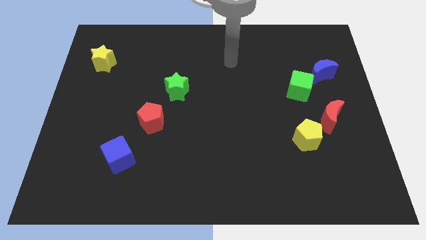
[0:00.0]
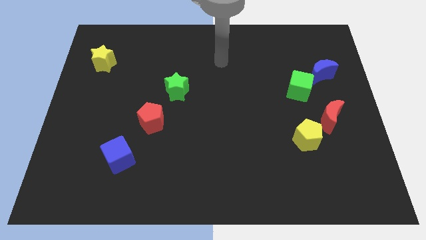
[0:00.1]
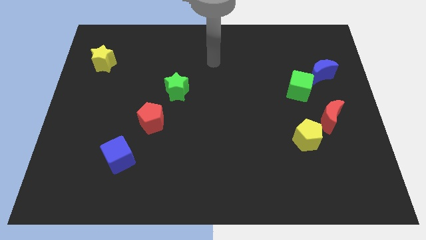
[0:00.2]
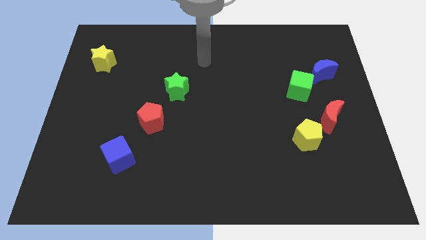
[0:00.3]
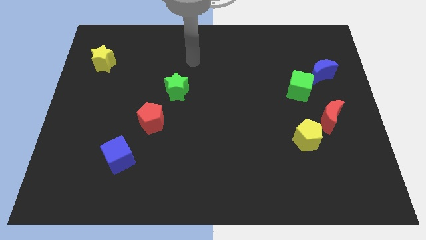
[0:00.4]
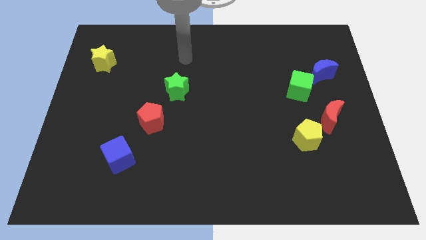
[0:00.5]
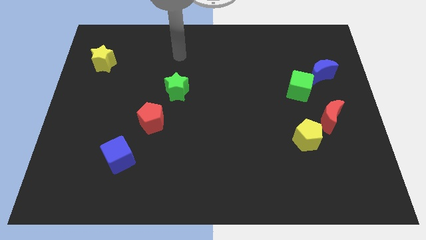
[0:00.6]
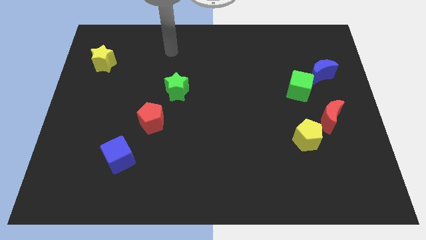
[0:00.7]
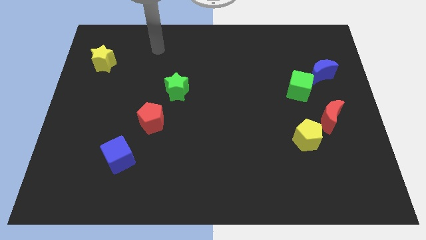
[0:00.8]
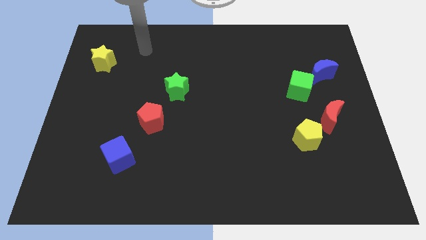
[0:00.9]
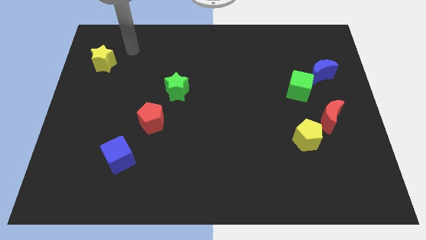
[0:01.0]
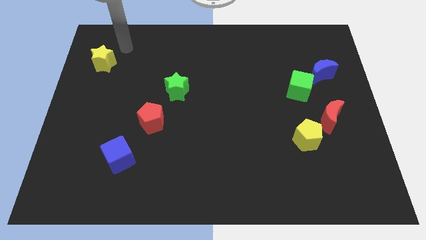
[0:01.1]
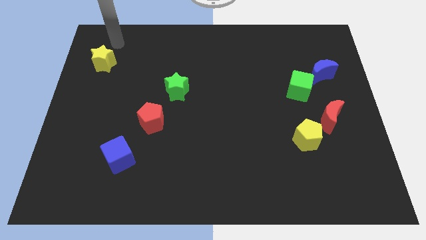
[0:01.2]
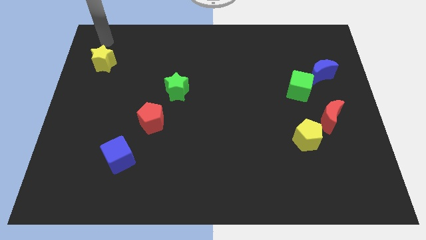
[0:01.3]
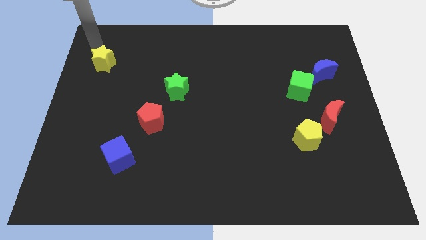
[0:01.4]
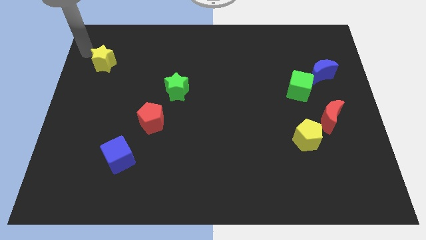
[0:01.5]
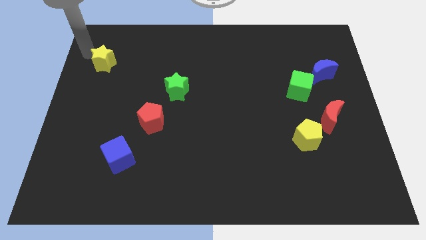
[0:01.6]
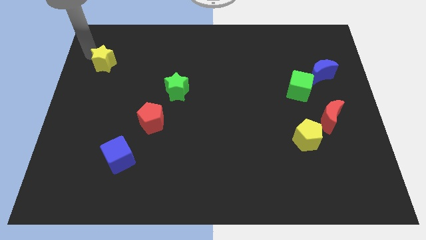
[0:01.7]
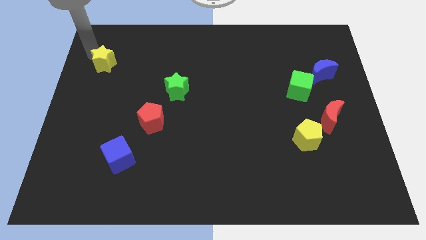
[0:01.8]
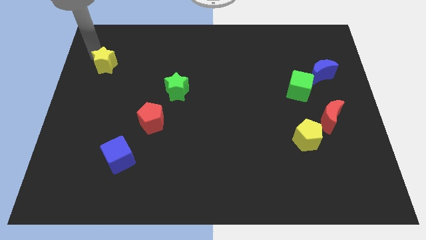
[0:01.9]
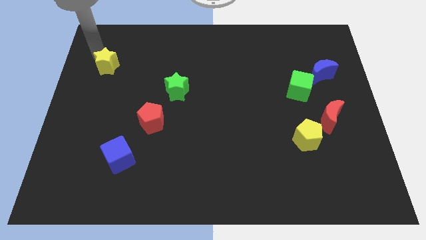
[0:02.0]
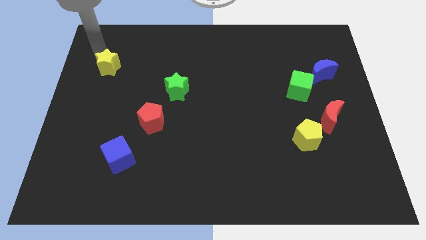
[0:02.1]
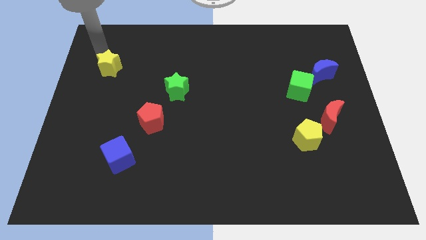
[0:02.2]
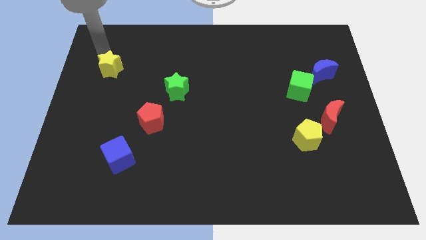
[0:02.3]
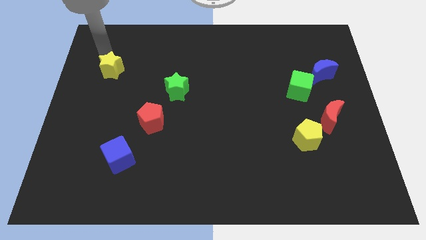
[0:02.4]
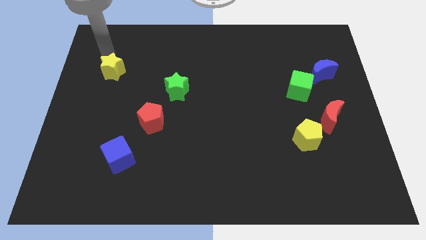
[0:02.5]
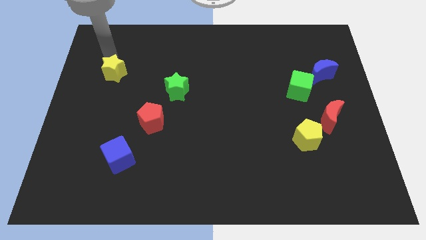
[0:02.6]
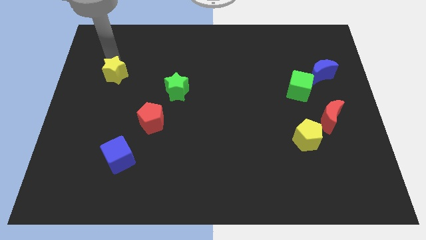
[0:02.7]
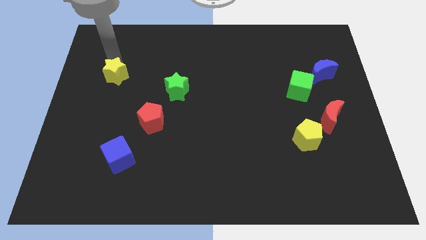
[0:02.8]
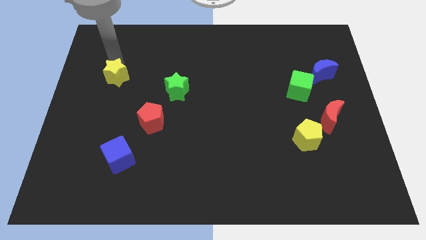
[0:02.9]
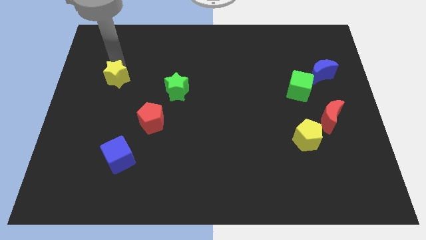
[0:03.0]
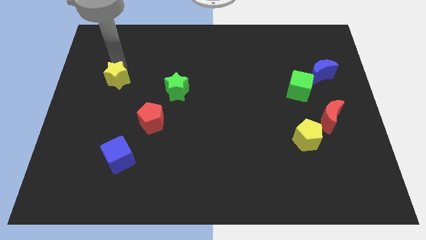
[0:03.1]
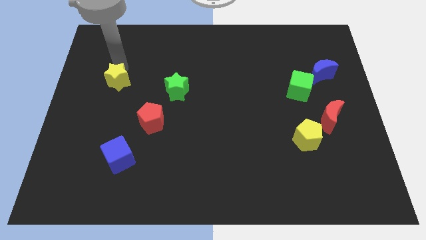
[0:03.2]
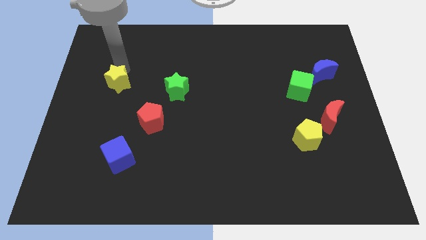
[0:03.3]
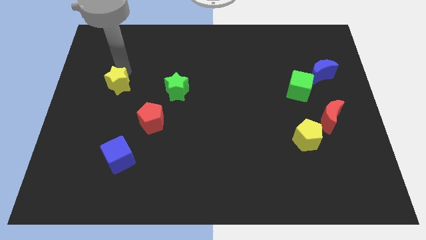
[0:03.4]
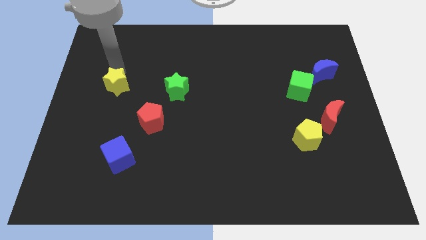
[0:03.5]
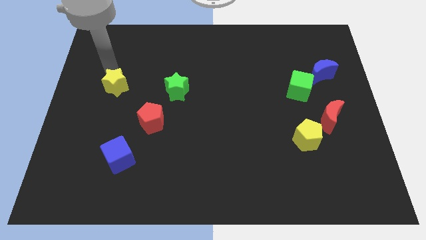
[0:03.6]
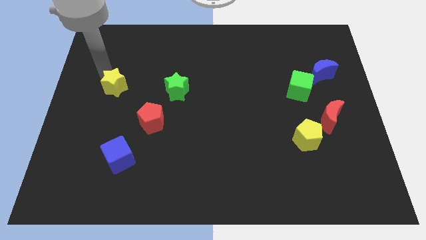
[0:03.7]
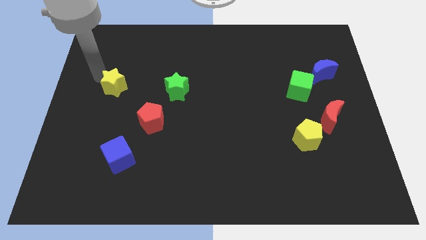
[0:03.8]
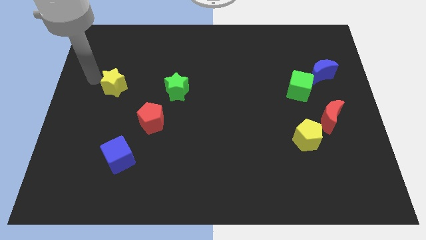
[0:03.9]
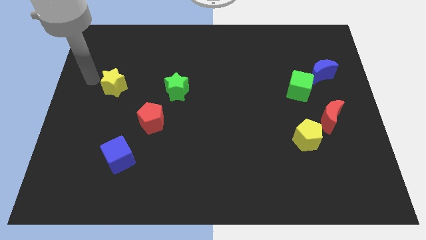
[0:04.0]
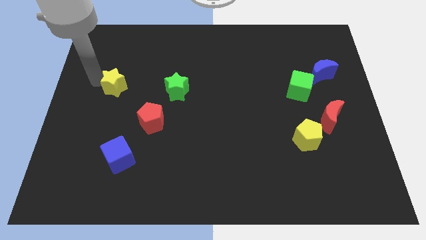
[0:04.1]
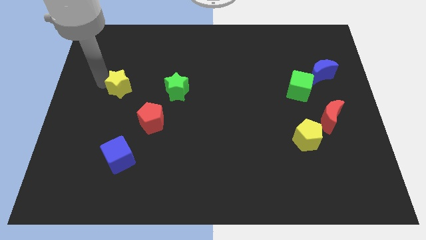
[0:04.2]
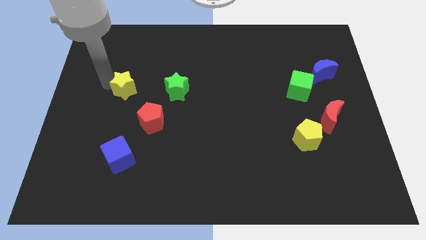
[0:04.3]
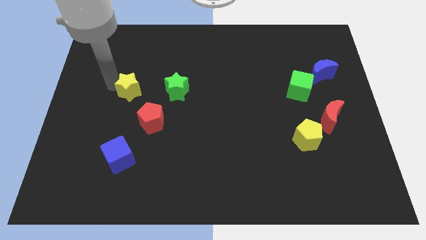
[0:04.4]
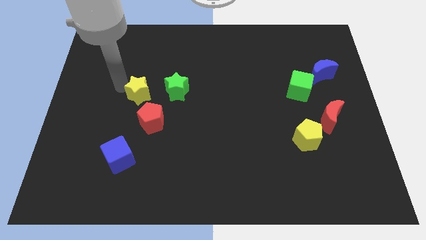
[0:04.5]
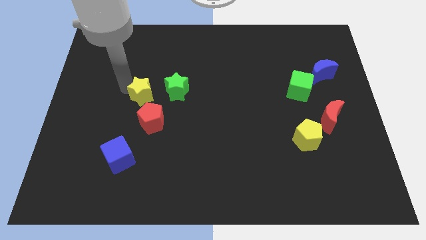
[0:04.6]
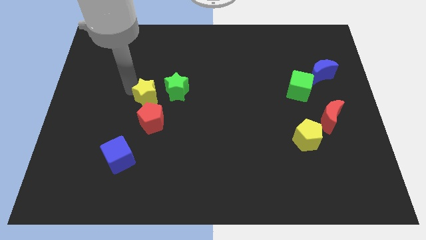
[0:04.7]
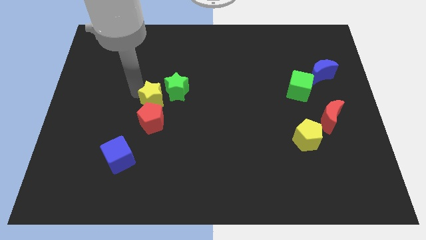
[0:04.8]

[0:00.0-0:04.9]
push the yellow star diagonally up and to the right of the red pentagon

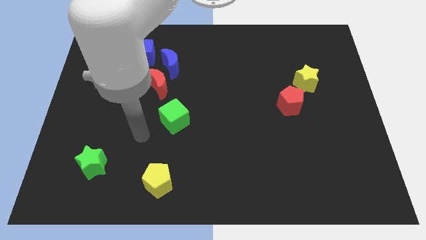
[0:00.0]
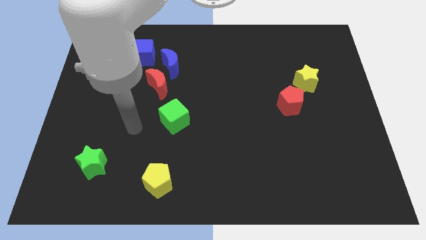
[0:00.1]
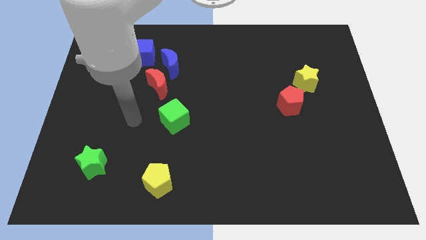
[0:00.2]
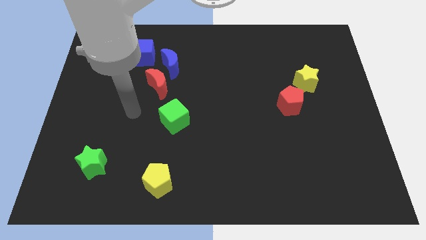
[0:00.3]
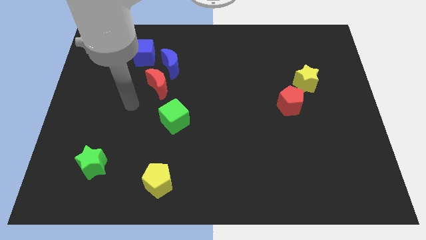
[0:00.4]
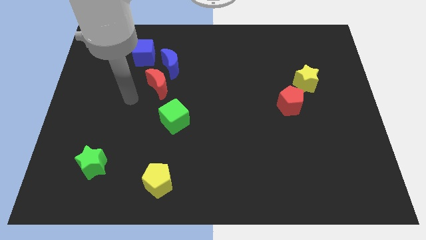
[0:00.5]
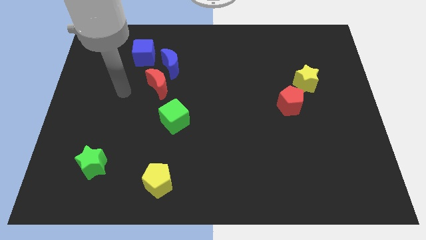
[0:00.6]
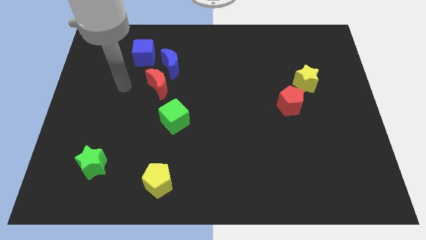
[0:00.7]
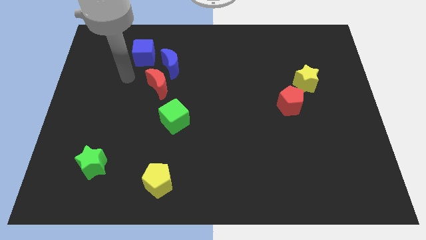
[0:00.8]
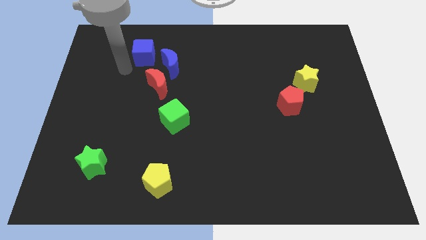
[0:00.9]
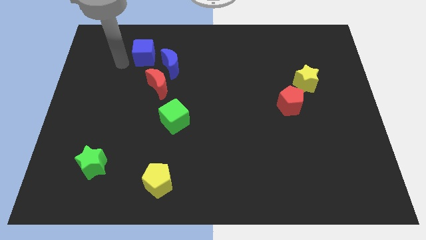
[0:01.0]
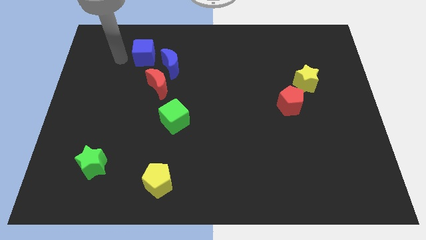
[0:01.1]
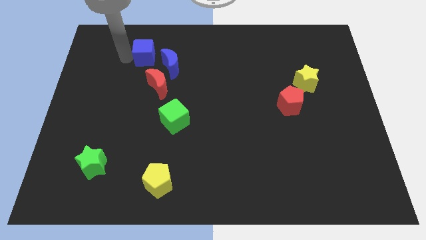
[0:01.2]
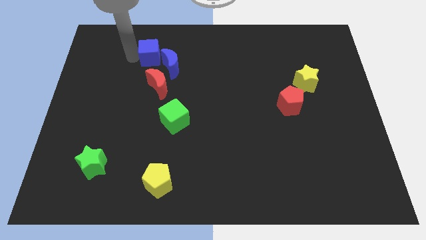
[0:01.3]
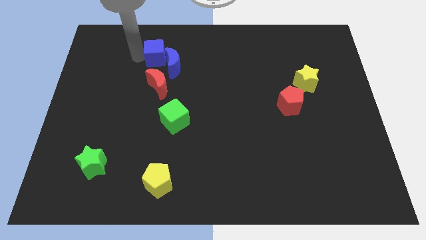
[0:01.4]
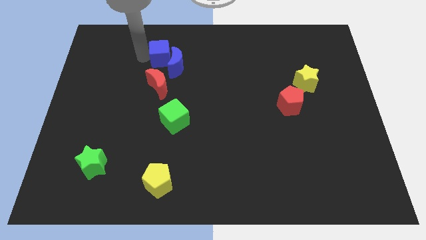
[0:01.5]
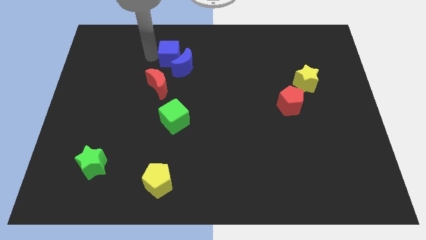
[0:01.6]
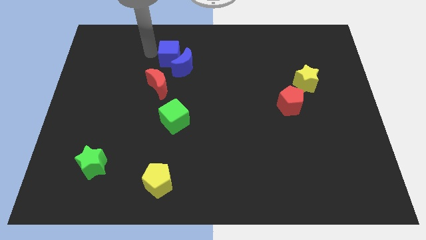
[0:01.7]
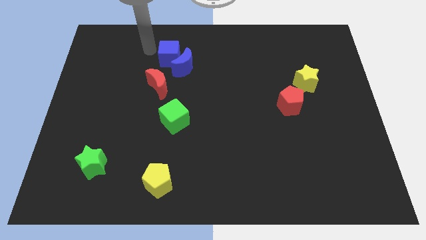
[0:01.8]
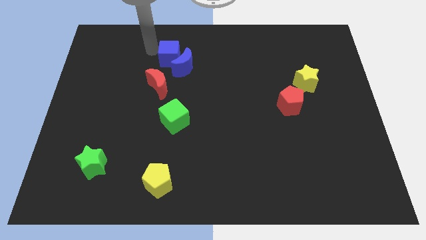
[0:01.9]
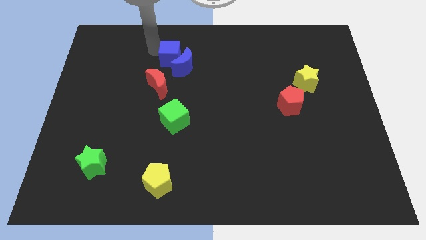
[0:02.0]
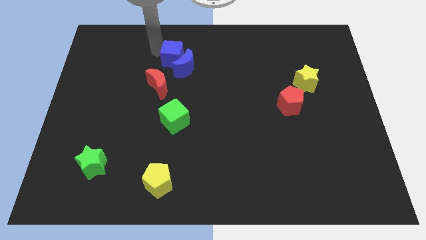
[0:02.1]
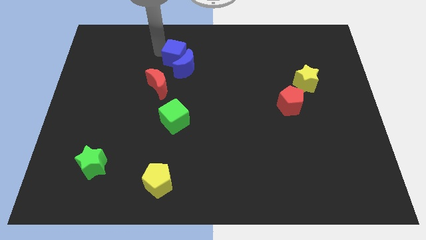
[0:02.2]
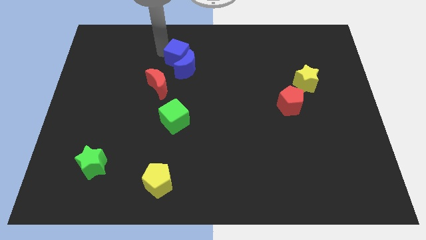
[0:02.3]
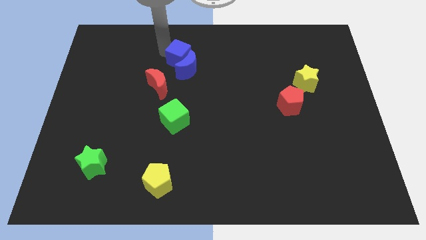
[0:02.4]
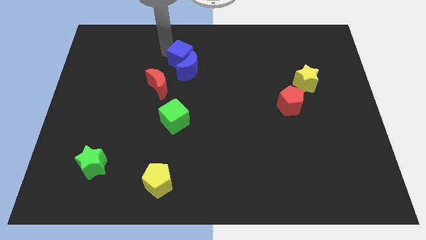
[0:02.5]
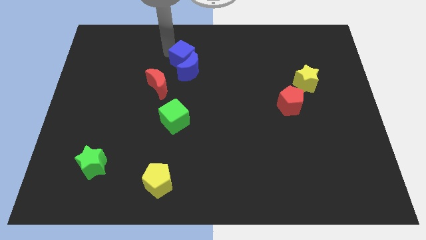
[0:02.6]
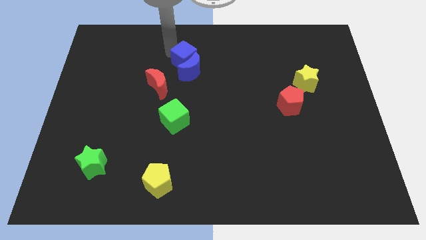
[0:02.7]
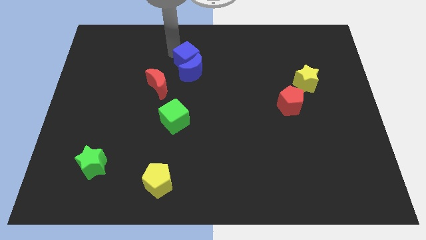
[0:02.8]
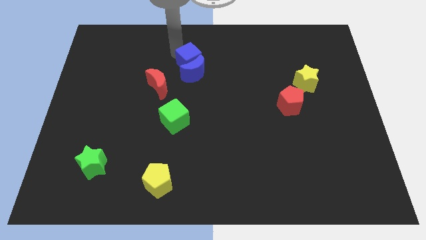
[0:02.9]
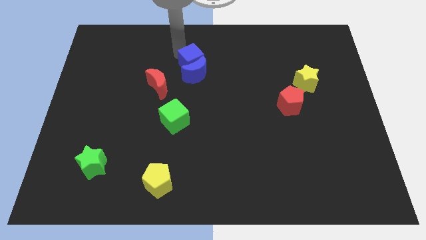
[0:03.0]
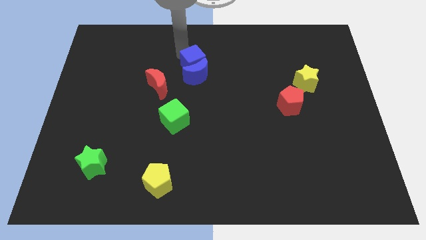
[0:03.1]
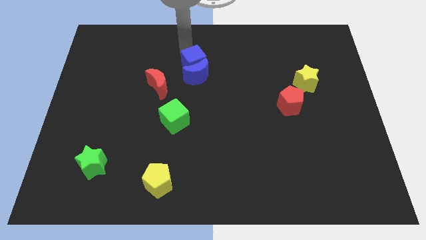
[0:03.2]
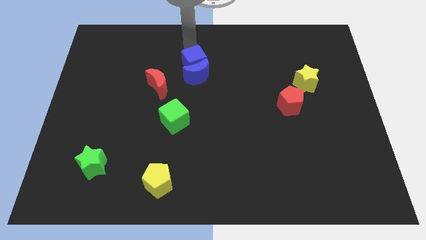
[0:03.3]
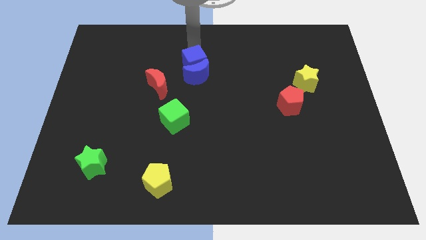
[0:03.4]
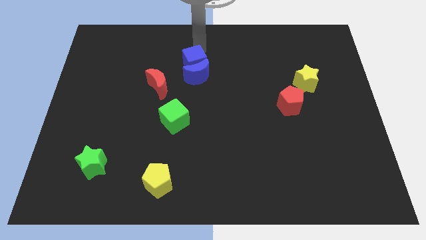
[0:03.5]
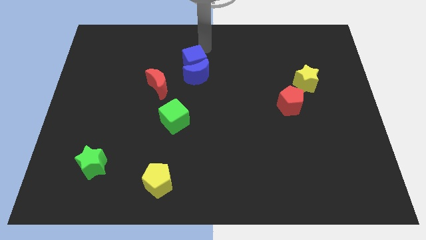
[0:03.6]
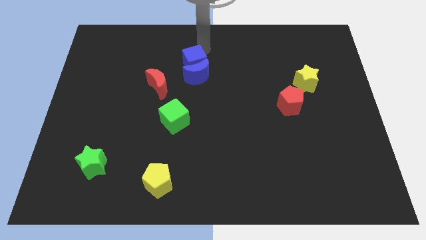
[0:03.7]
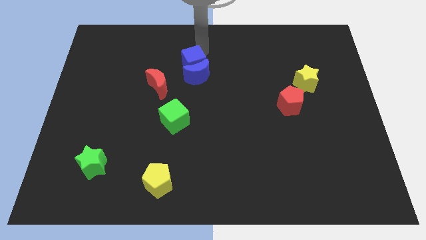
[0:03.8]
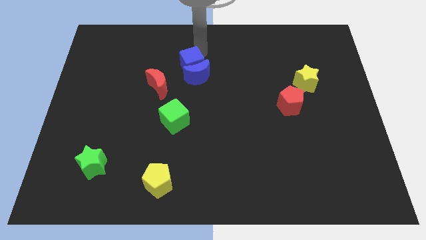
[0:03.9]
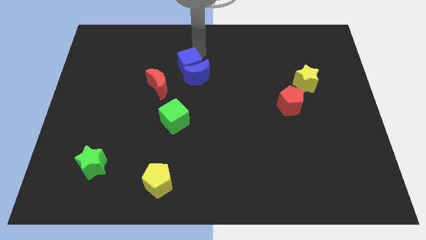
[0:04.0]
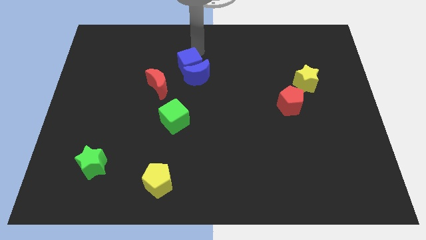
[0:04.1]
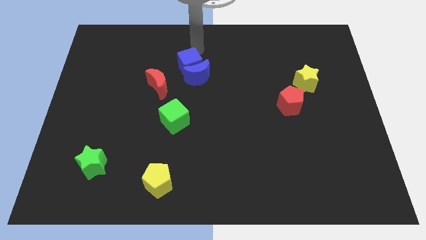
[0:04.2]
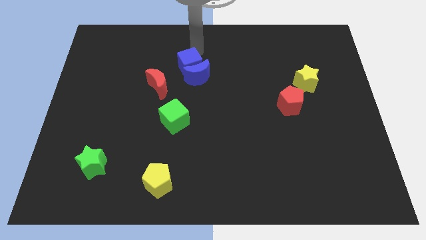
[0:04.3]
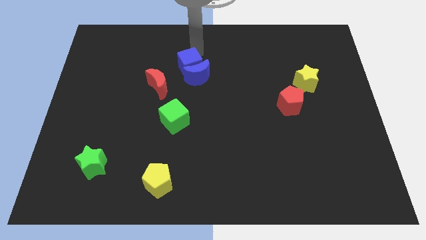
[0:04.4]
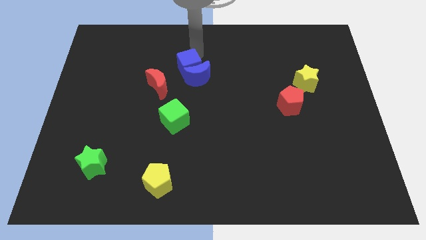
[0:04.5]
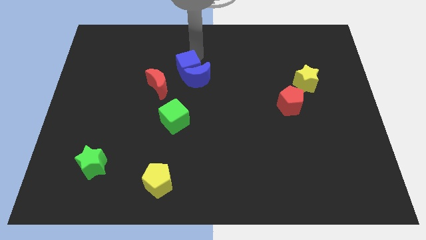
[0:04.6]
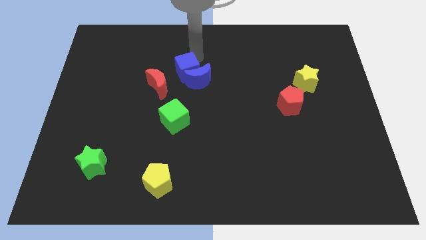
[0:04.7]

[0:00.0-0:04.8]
move the blue cube to the top side of the green cube
